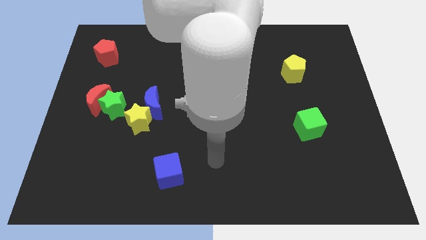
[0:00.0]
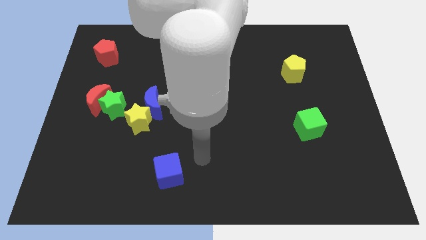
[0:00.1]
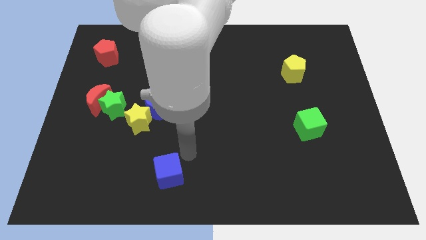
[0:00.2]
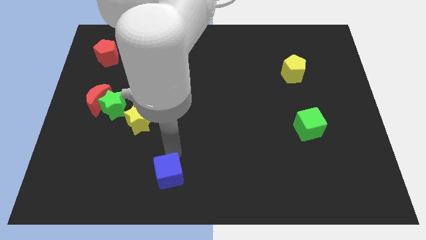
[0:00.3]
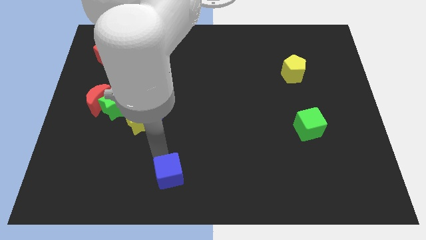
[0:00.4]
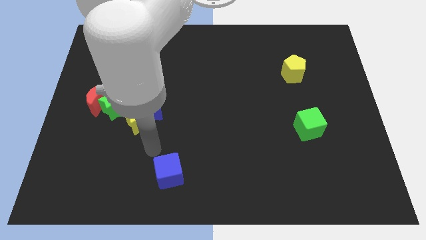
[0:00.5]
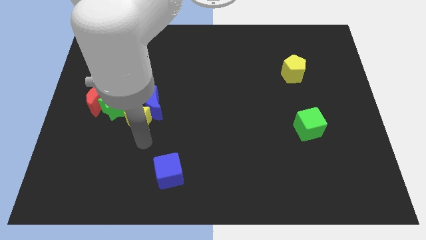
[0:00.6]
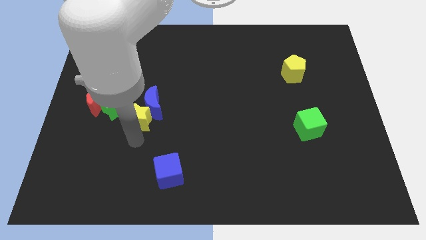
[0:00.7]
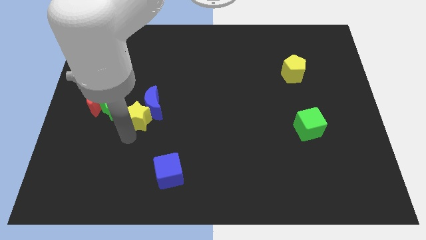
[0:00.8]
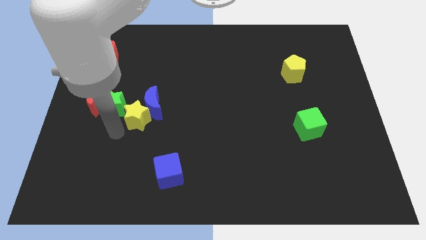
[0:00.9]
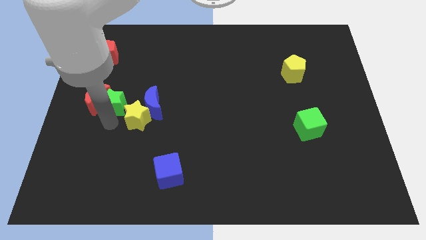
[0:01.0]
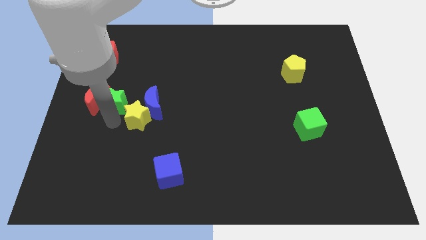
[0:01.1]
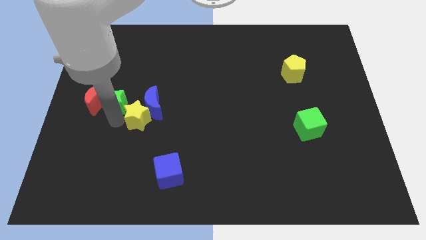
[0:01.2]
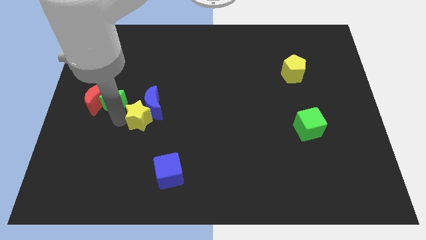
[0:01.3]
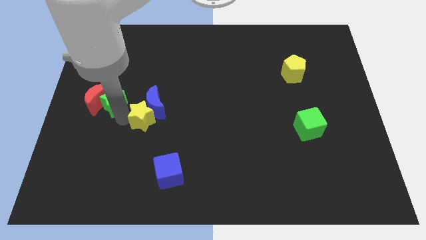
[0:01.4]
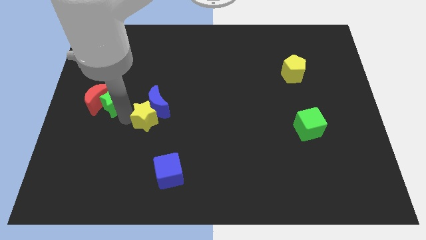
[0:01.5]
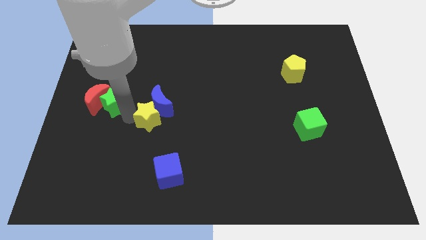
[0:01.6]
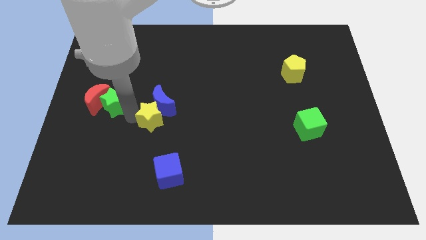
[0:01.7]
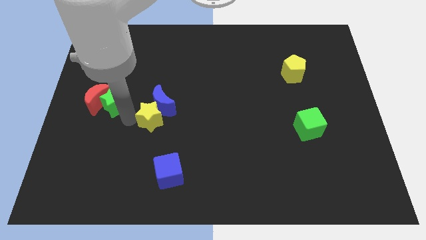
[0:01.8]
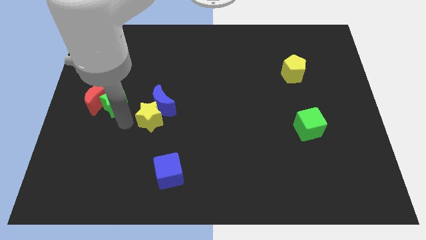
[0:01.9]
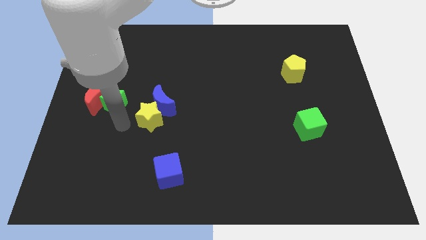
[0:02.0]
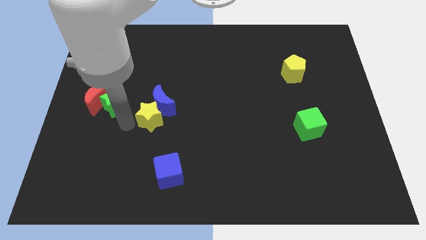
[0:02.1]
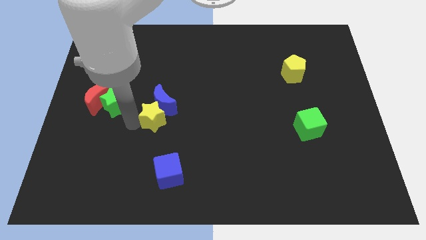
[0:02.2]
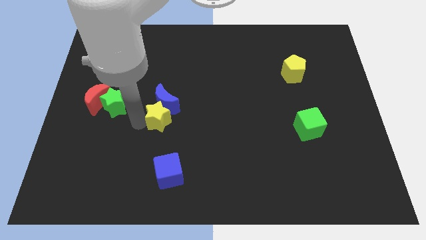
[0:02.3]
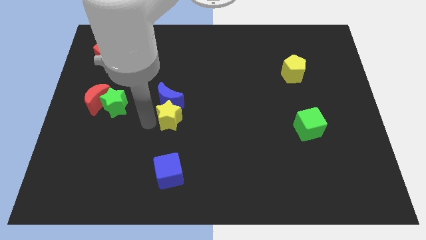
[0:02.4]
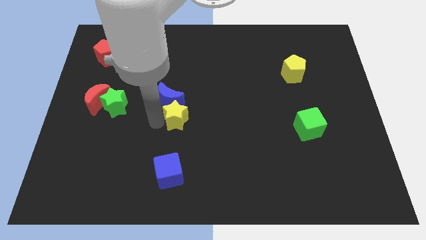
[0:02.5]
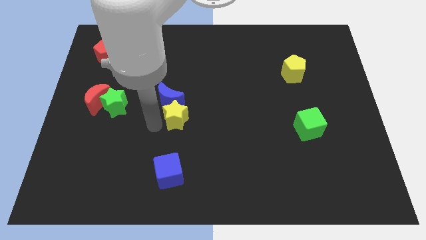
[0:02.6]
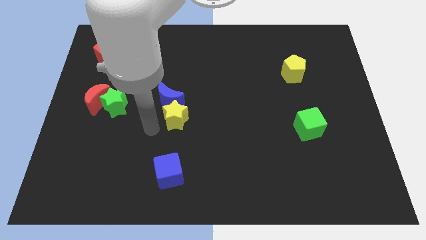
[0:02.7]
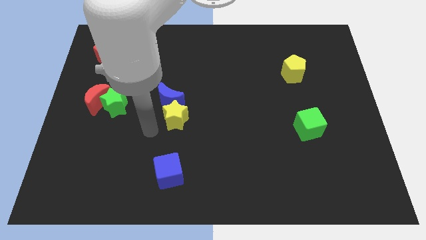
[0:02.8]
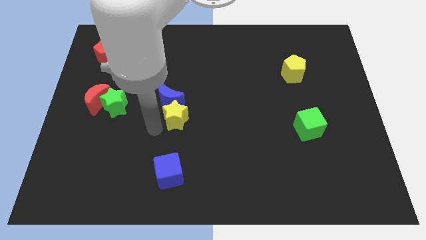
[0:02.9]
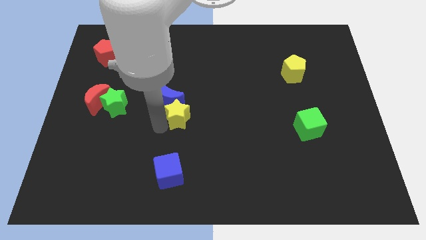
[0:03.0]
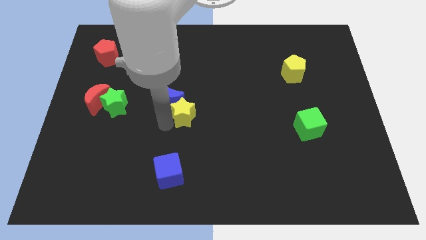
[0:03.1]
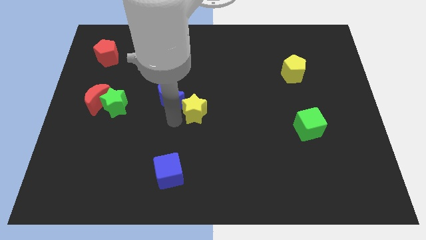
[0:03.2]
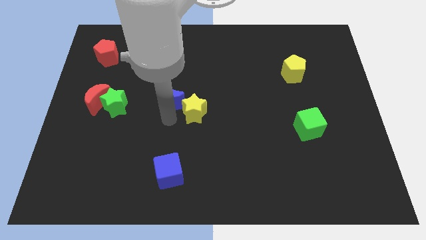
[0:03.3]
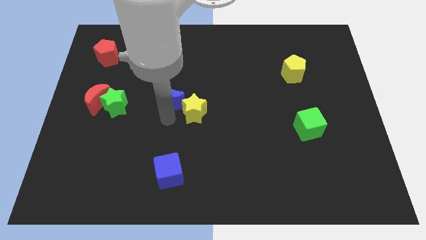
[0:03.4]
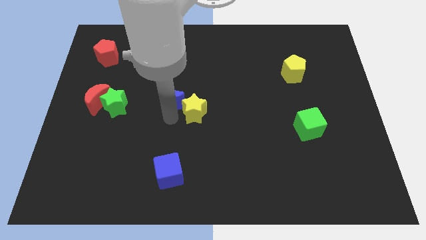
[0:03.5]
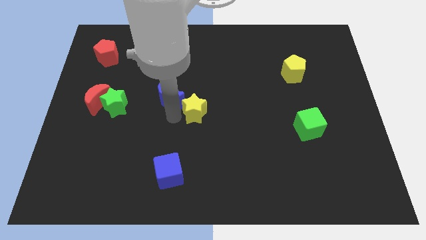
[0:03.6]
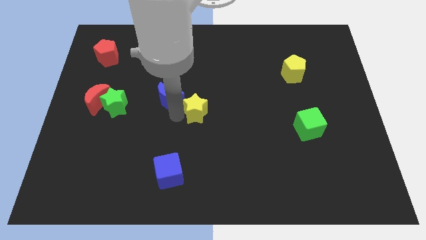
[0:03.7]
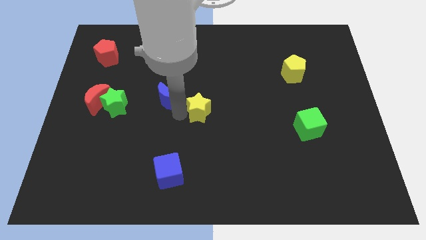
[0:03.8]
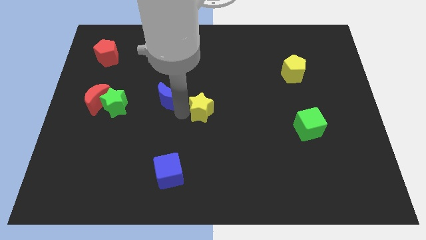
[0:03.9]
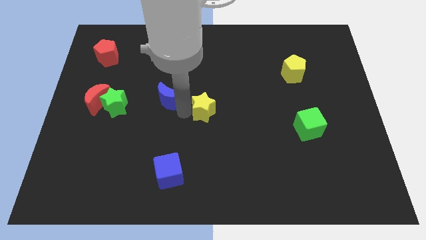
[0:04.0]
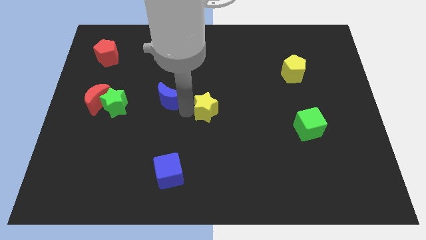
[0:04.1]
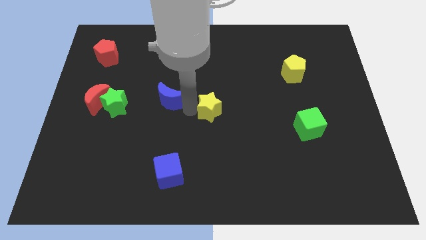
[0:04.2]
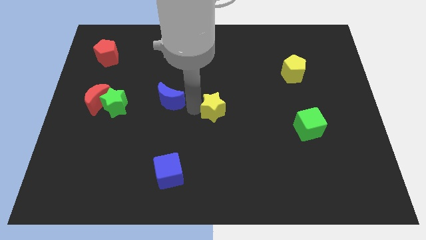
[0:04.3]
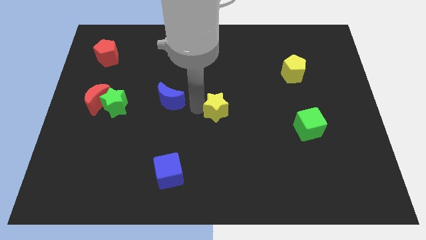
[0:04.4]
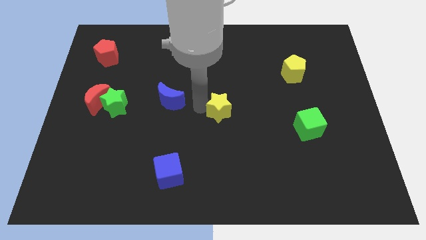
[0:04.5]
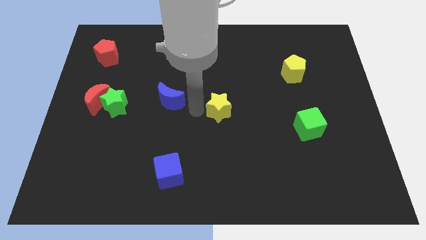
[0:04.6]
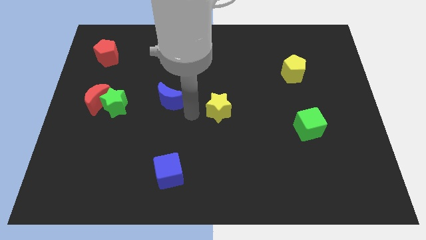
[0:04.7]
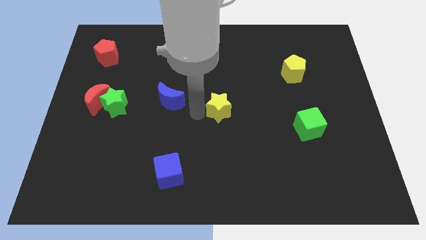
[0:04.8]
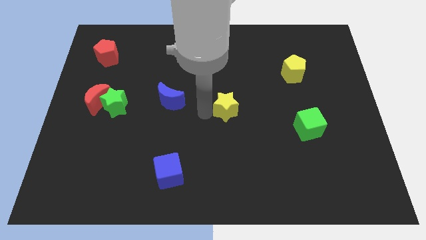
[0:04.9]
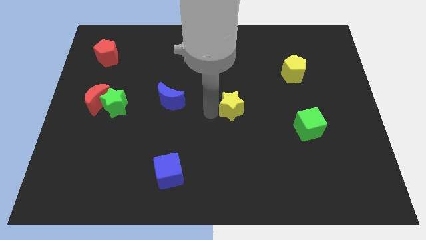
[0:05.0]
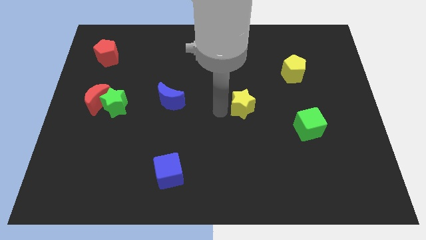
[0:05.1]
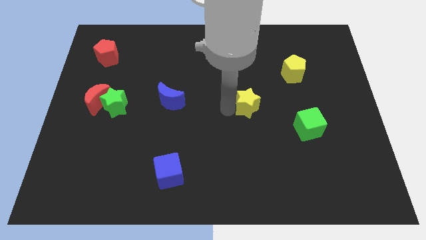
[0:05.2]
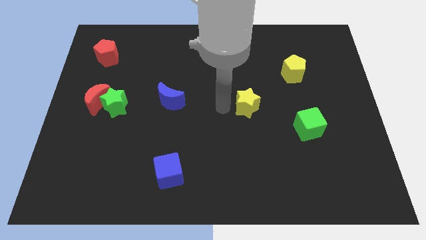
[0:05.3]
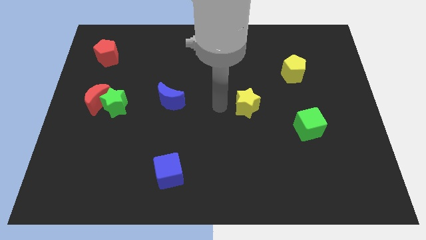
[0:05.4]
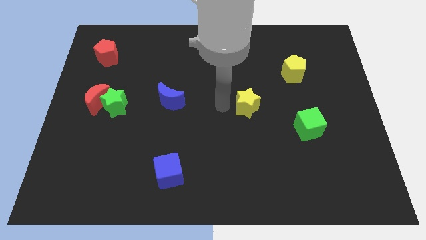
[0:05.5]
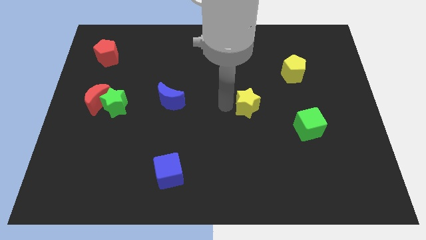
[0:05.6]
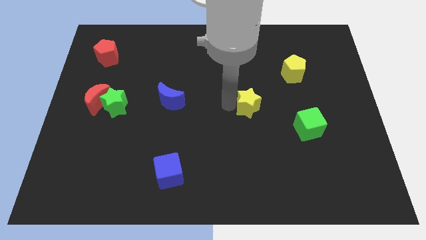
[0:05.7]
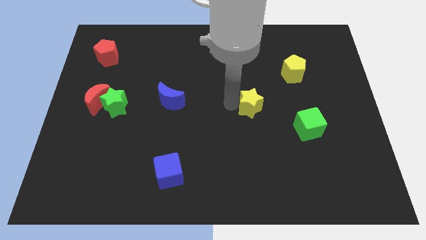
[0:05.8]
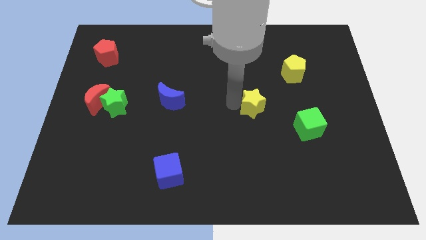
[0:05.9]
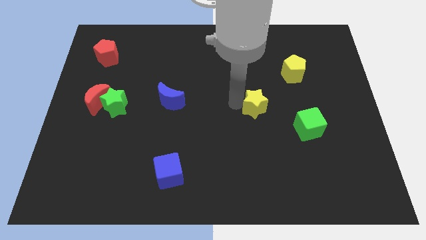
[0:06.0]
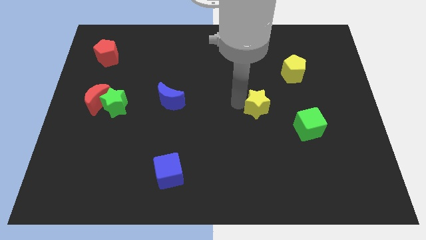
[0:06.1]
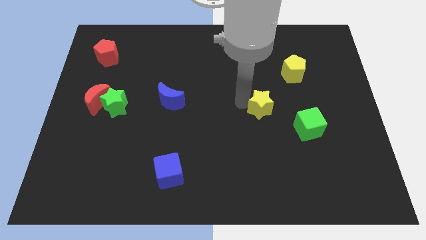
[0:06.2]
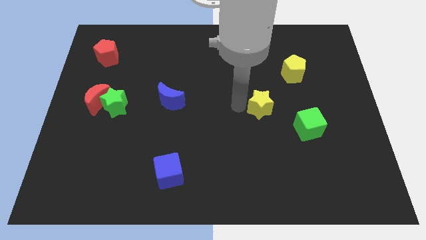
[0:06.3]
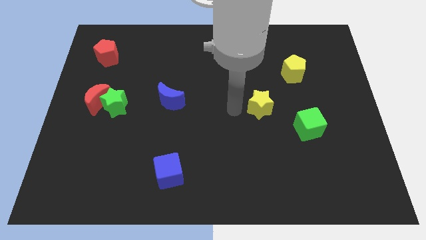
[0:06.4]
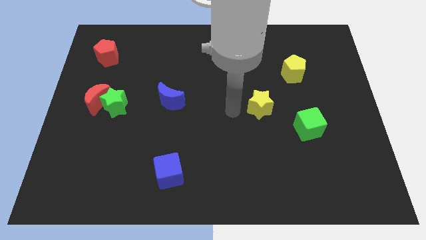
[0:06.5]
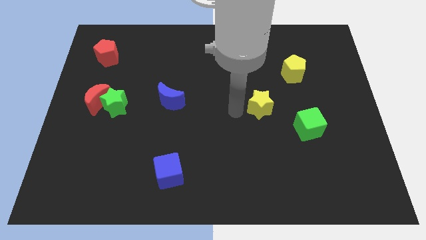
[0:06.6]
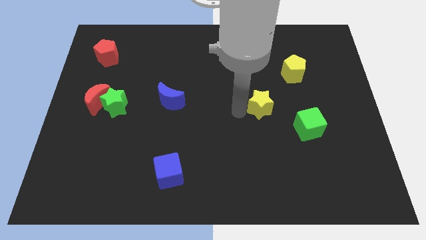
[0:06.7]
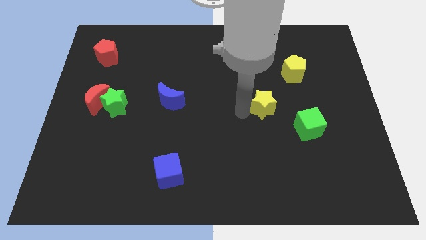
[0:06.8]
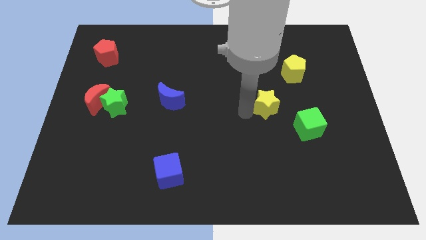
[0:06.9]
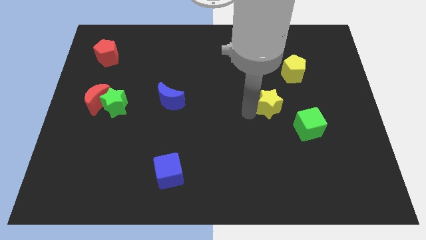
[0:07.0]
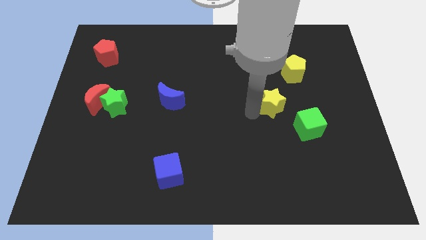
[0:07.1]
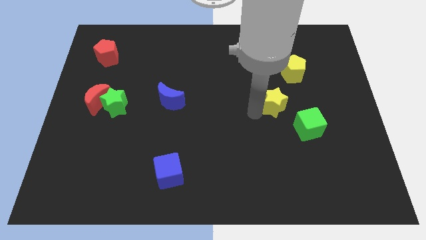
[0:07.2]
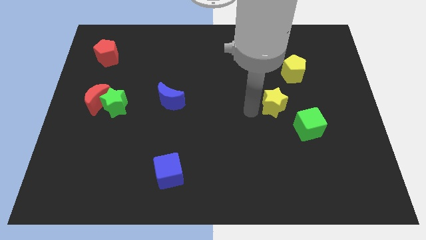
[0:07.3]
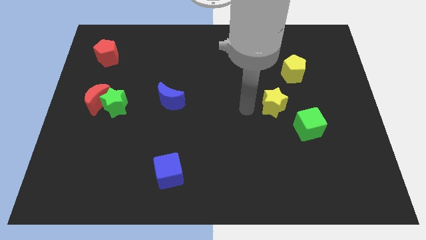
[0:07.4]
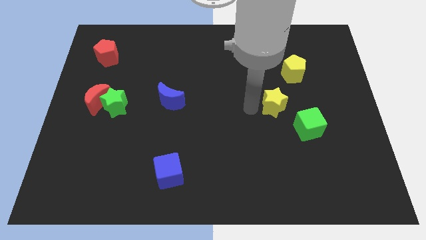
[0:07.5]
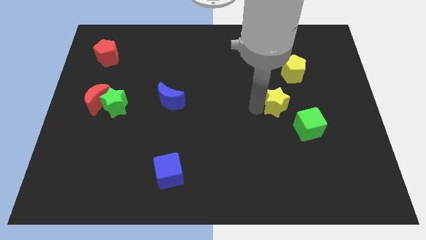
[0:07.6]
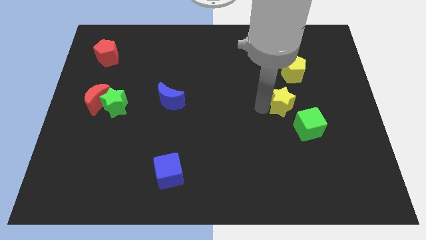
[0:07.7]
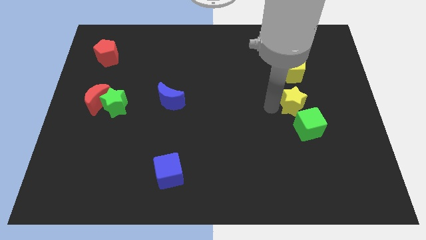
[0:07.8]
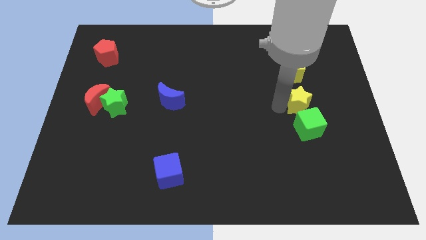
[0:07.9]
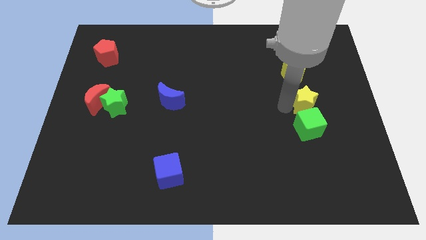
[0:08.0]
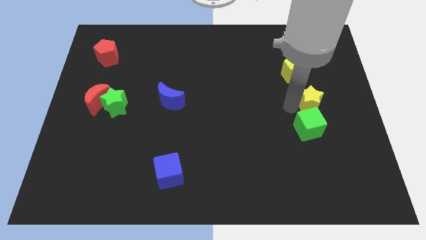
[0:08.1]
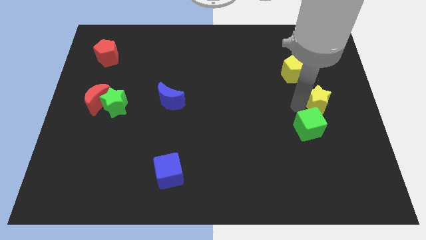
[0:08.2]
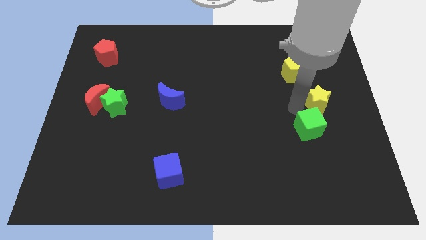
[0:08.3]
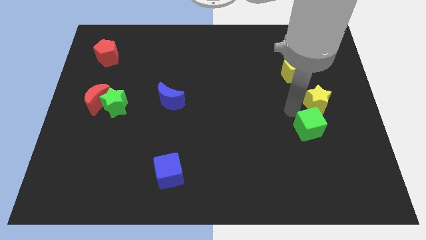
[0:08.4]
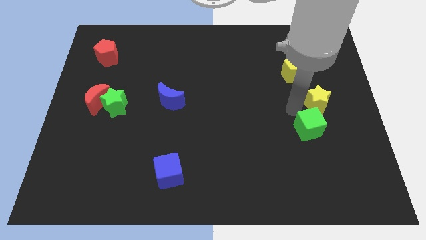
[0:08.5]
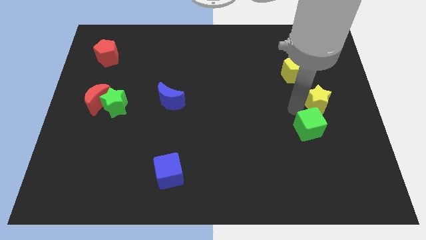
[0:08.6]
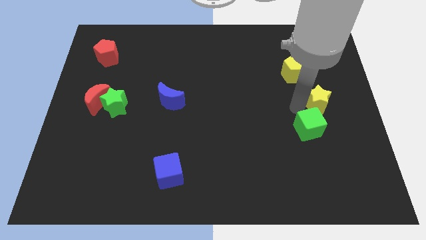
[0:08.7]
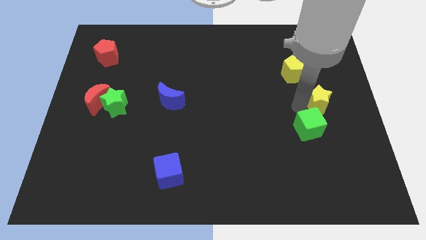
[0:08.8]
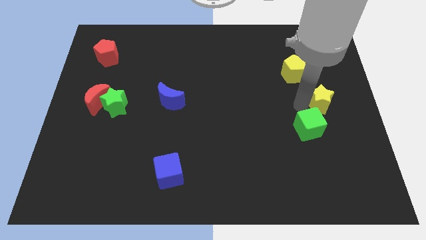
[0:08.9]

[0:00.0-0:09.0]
put the yellow star to the right side
